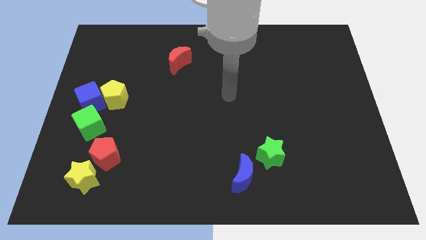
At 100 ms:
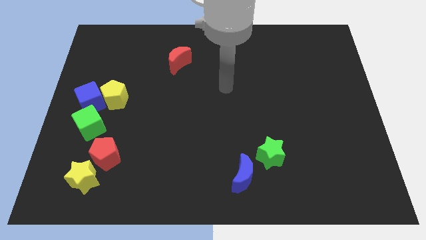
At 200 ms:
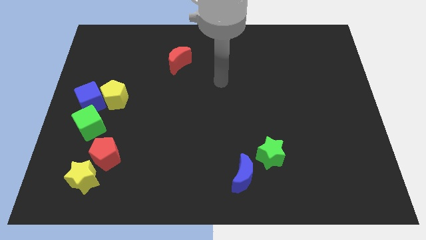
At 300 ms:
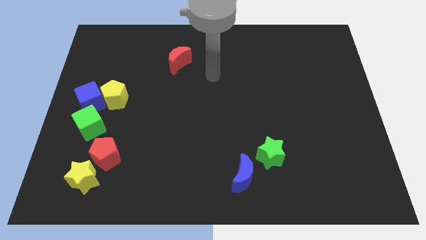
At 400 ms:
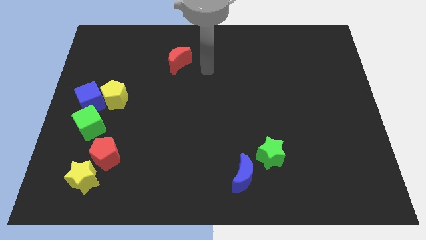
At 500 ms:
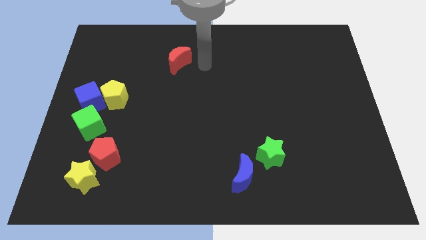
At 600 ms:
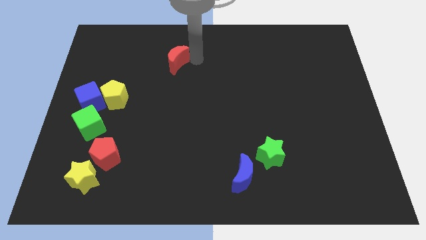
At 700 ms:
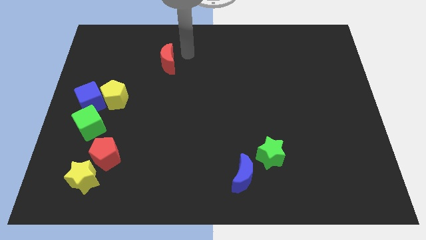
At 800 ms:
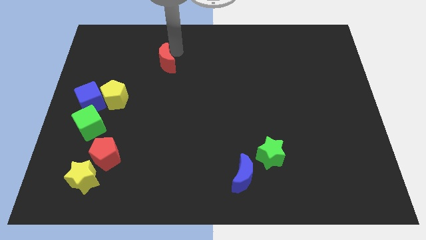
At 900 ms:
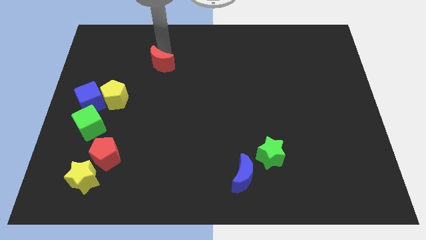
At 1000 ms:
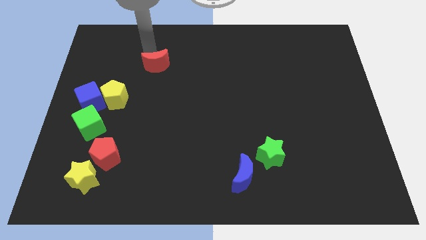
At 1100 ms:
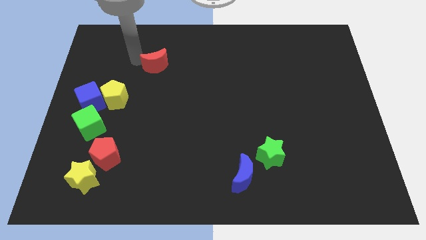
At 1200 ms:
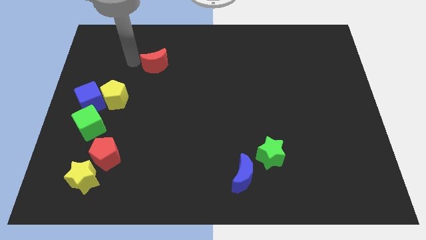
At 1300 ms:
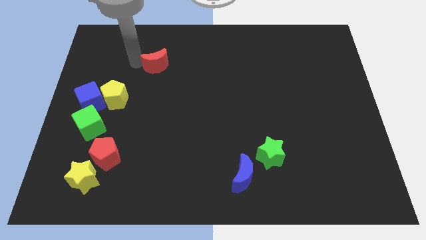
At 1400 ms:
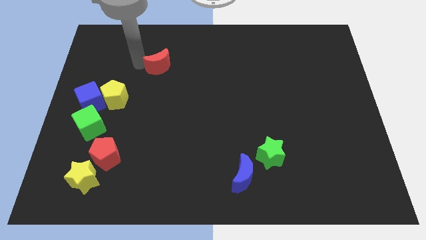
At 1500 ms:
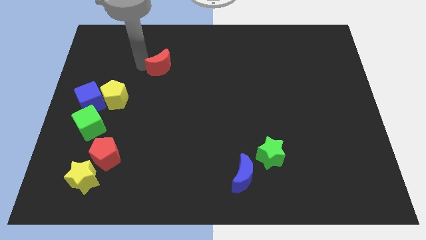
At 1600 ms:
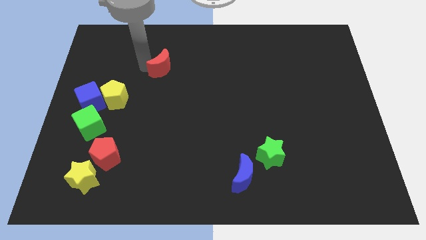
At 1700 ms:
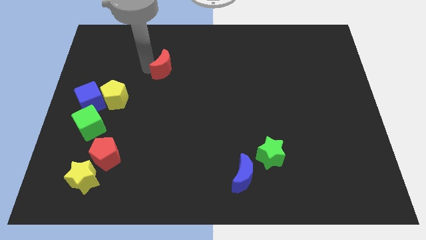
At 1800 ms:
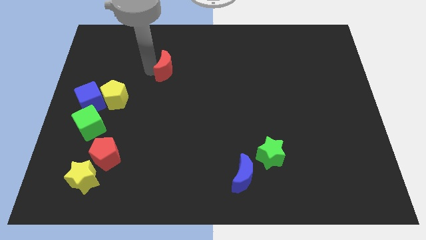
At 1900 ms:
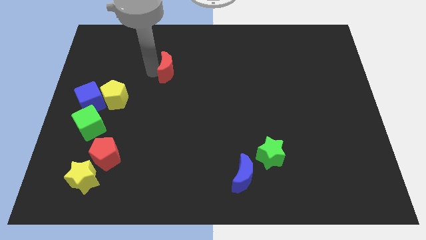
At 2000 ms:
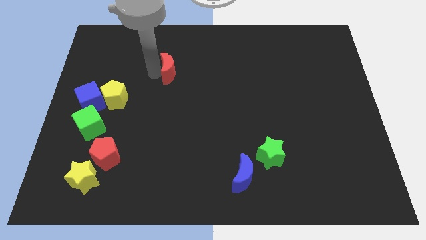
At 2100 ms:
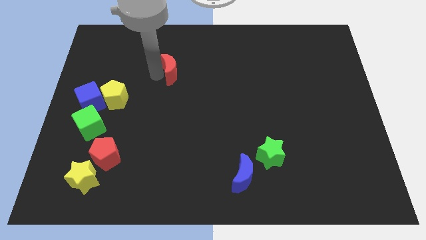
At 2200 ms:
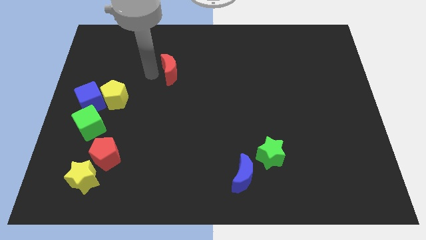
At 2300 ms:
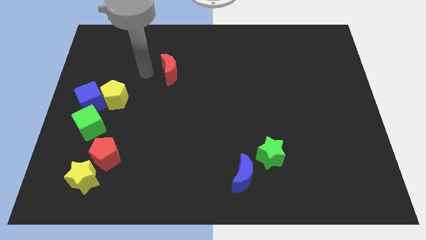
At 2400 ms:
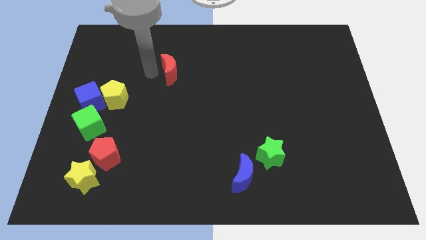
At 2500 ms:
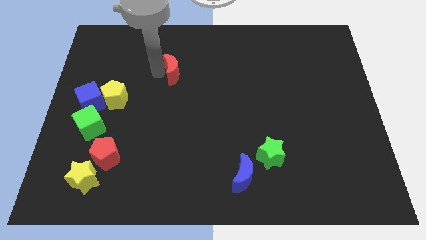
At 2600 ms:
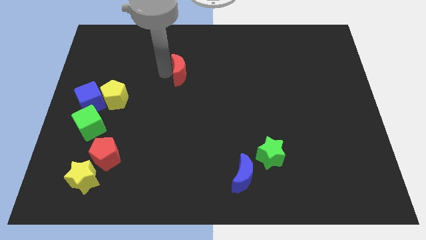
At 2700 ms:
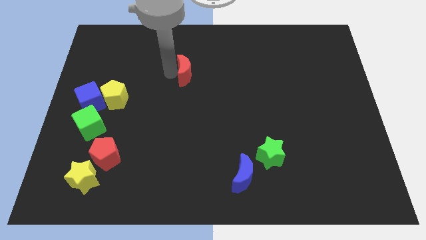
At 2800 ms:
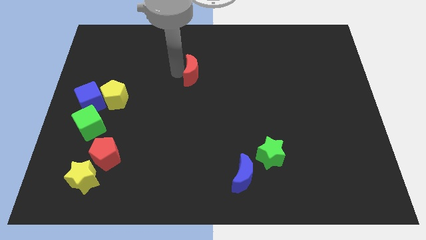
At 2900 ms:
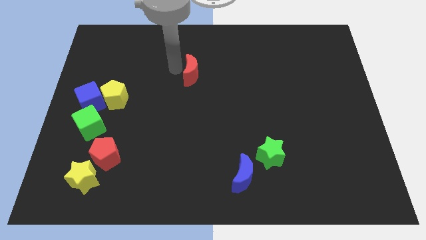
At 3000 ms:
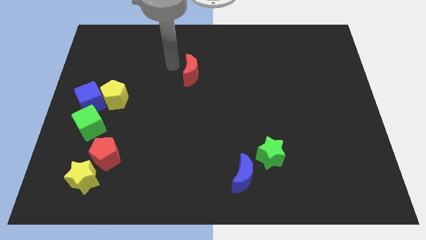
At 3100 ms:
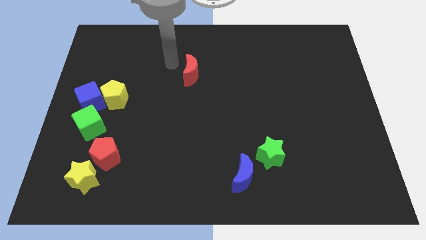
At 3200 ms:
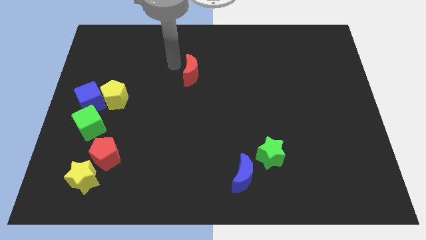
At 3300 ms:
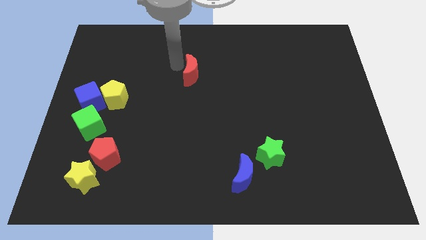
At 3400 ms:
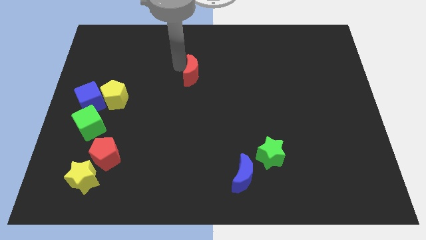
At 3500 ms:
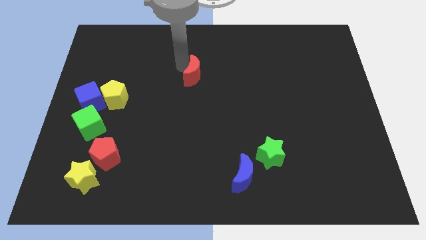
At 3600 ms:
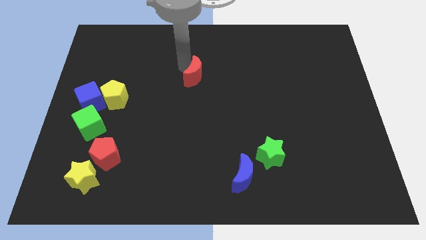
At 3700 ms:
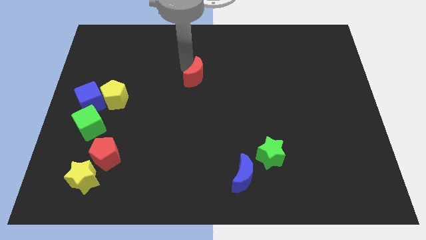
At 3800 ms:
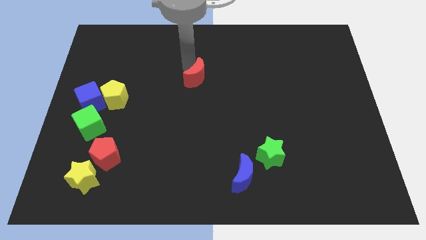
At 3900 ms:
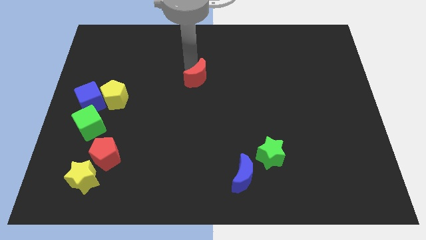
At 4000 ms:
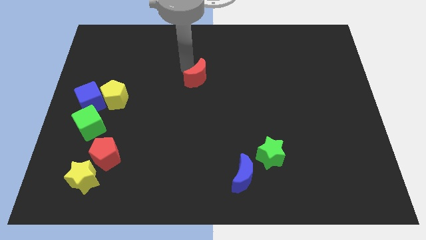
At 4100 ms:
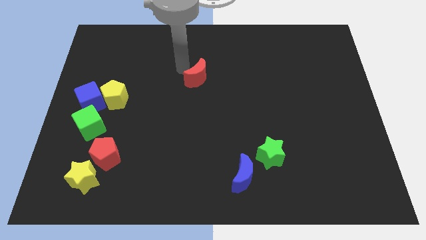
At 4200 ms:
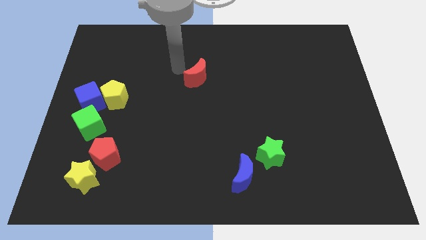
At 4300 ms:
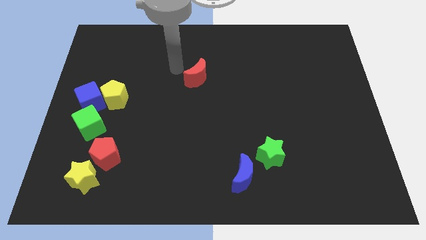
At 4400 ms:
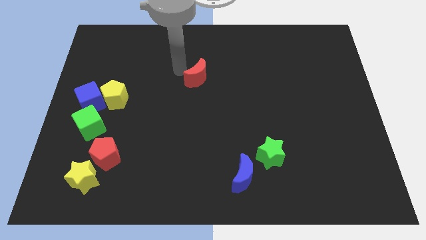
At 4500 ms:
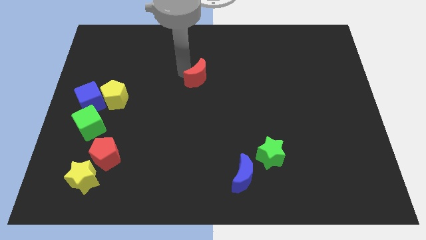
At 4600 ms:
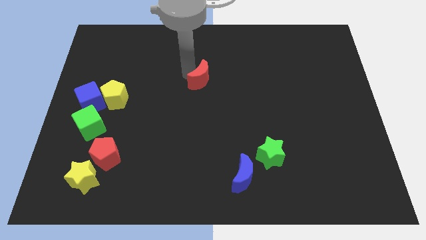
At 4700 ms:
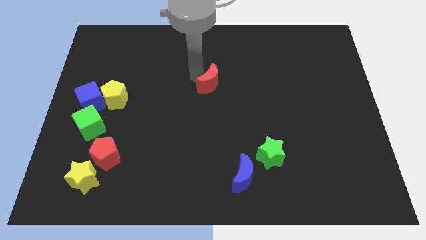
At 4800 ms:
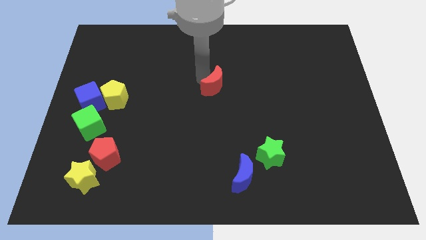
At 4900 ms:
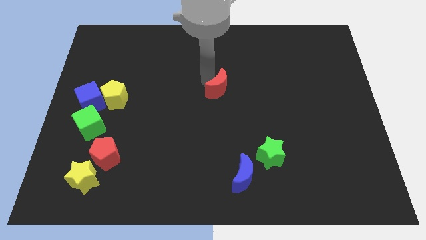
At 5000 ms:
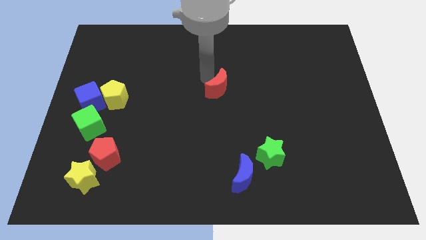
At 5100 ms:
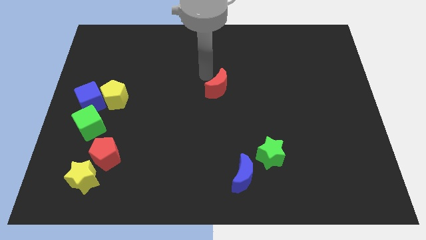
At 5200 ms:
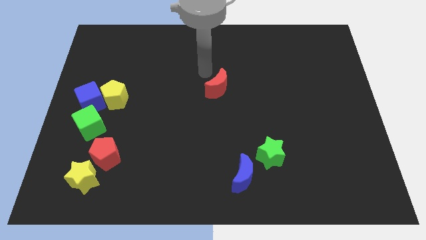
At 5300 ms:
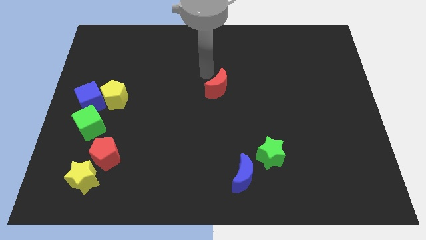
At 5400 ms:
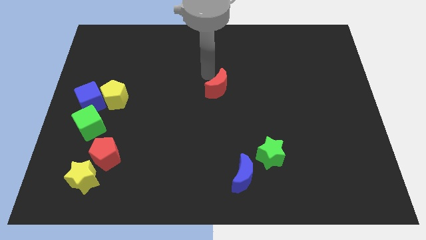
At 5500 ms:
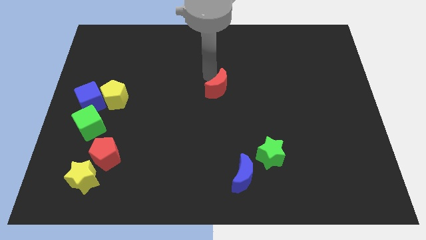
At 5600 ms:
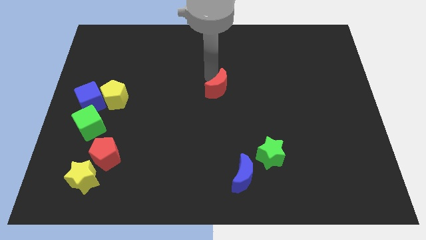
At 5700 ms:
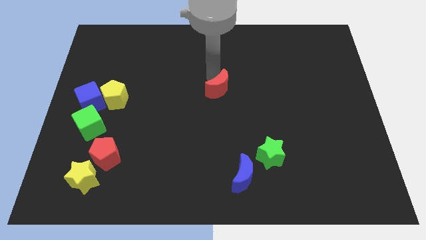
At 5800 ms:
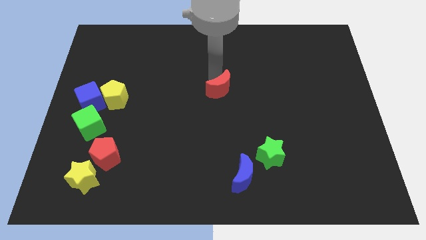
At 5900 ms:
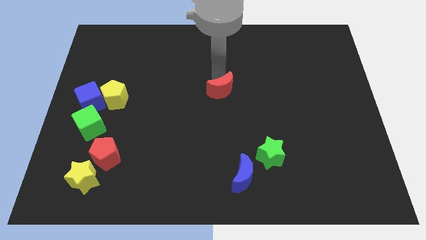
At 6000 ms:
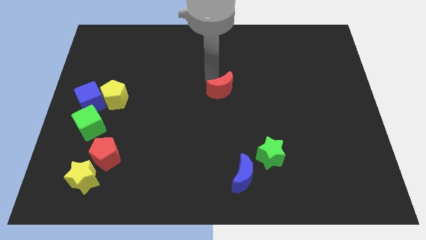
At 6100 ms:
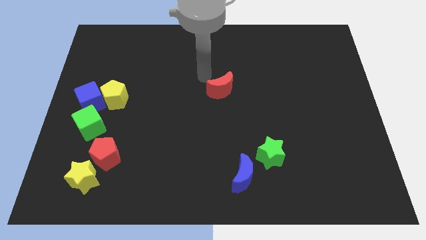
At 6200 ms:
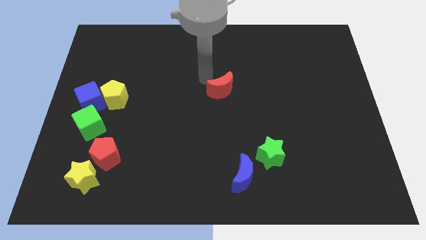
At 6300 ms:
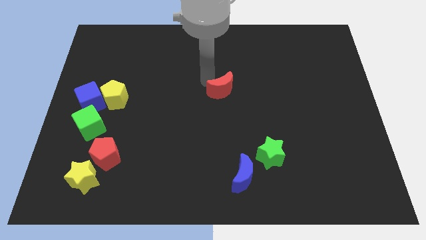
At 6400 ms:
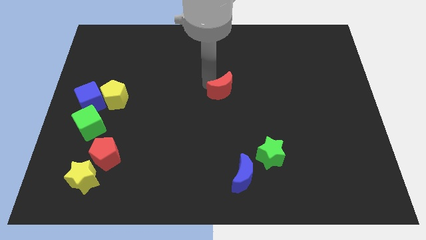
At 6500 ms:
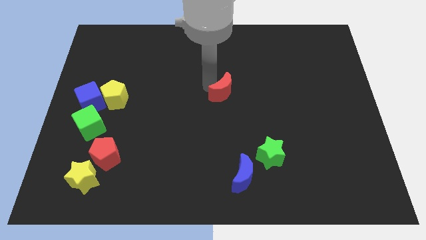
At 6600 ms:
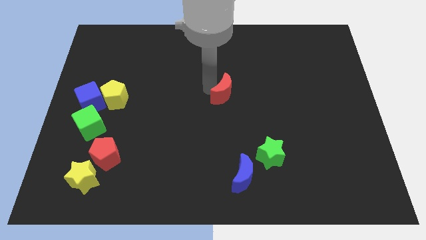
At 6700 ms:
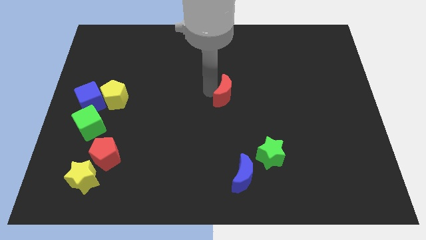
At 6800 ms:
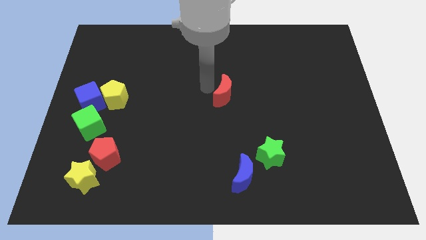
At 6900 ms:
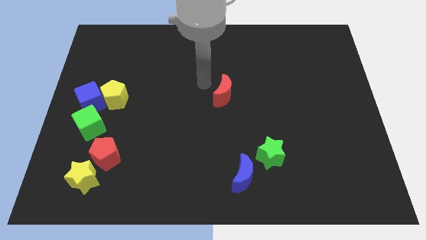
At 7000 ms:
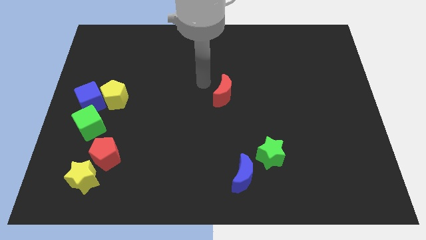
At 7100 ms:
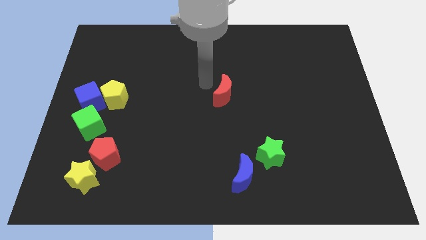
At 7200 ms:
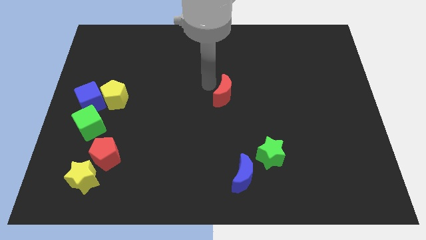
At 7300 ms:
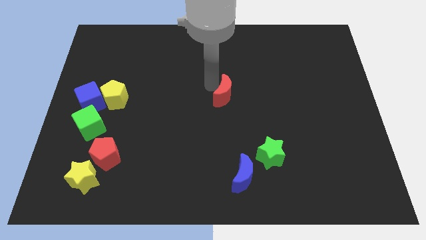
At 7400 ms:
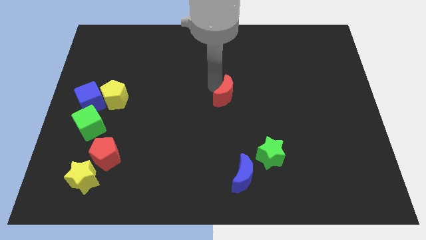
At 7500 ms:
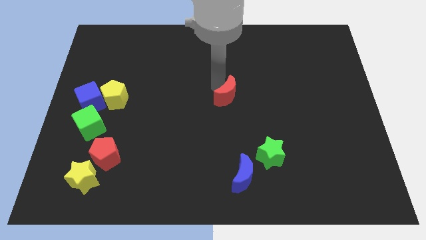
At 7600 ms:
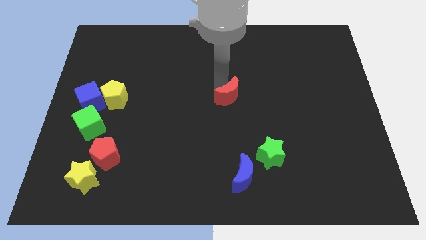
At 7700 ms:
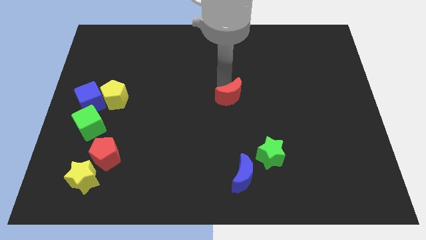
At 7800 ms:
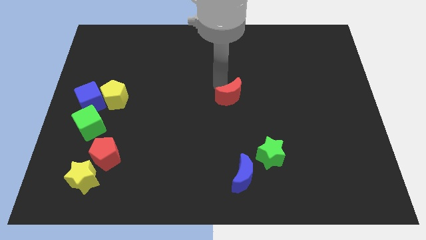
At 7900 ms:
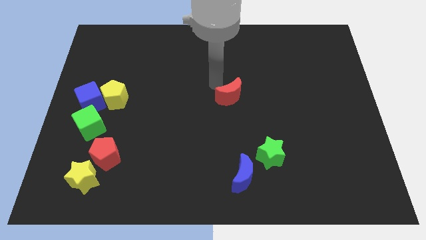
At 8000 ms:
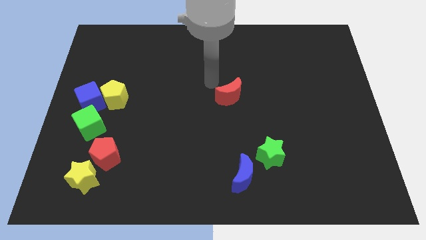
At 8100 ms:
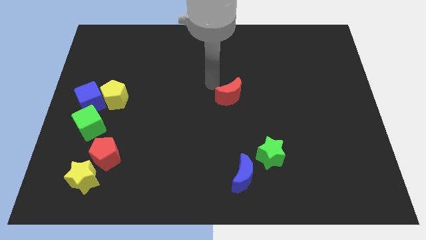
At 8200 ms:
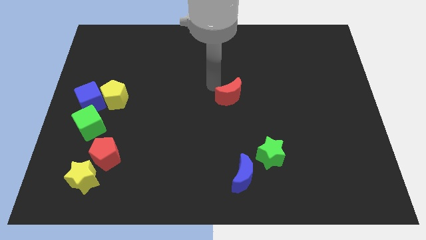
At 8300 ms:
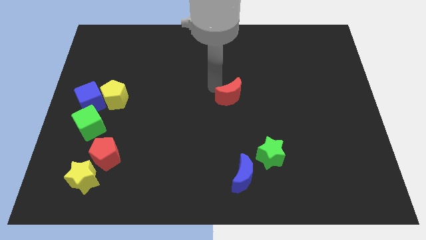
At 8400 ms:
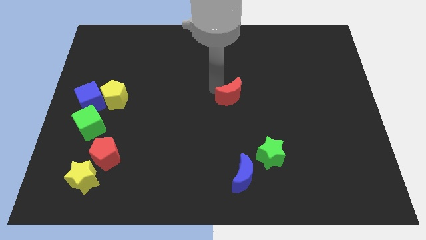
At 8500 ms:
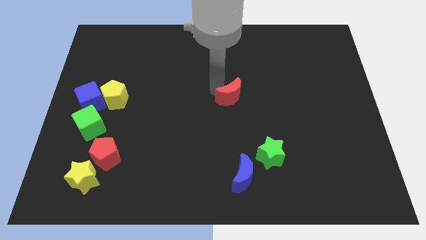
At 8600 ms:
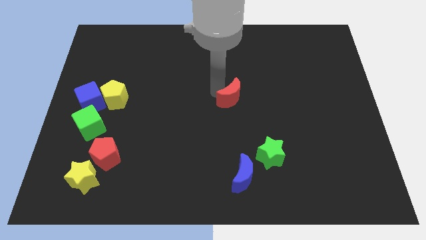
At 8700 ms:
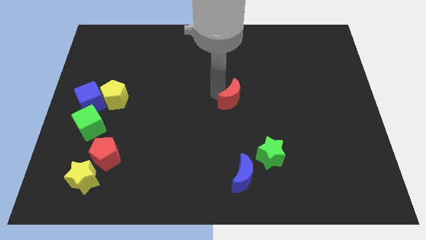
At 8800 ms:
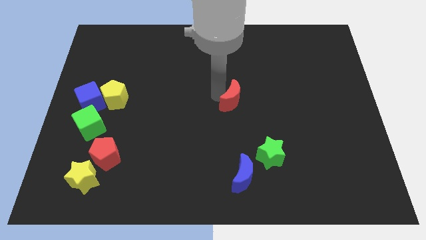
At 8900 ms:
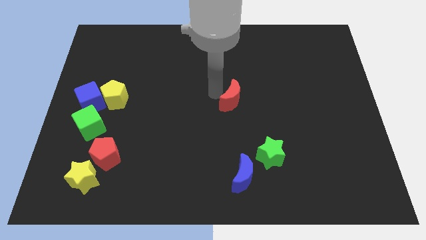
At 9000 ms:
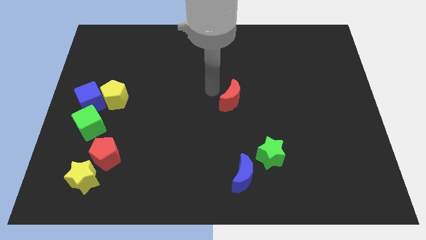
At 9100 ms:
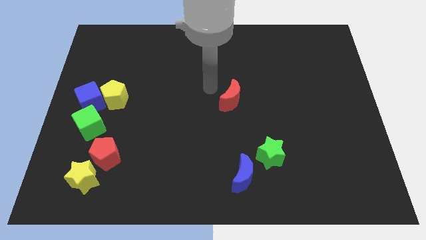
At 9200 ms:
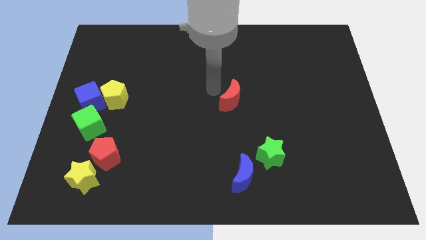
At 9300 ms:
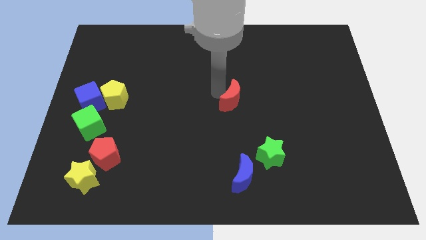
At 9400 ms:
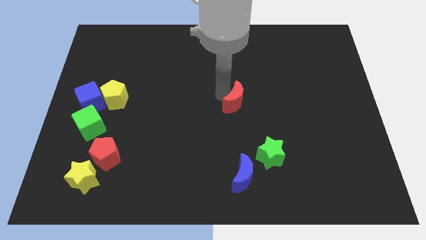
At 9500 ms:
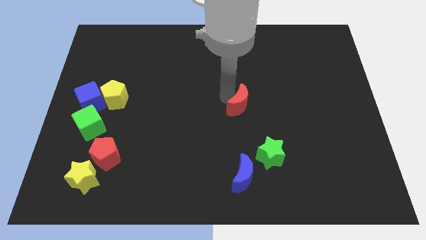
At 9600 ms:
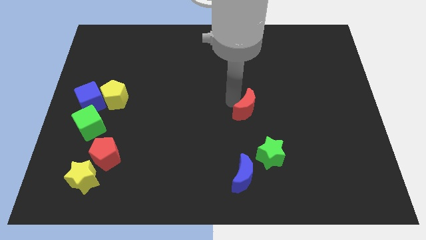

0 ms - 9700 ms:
push the red moon above the green star
